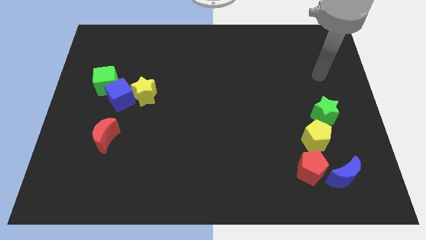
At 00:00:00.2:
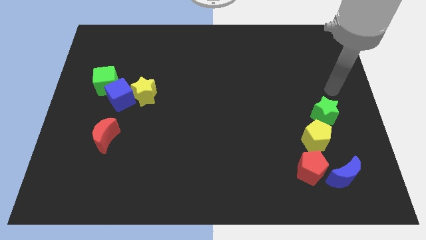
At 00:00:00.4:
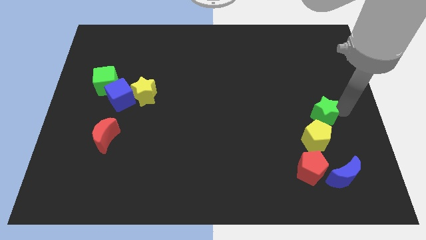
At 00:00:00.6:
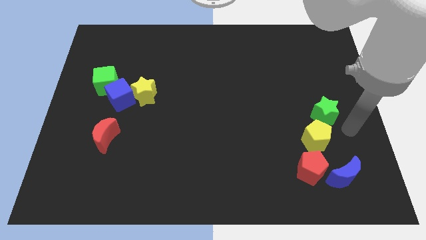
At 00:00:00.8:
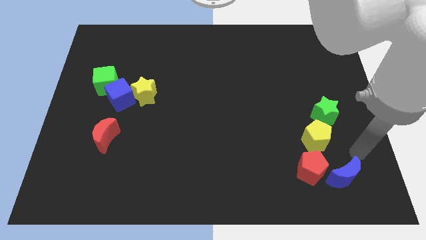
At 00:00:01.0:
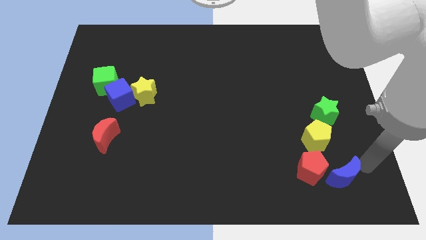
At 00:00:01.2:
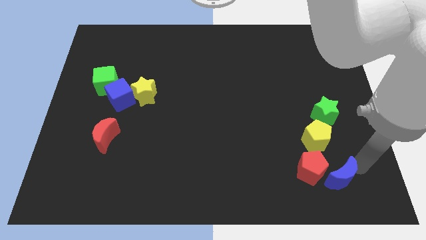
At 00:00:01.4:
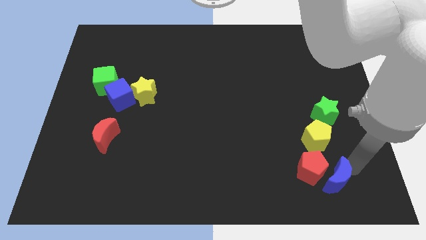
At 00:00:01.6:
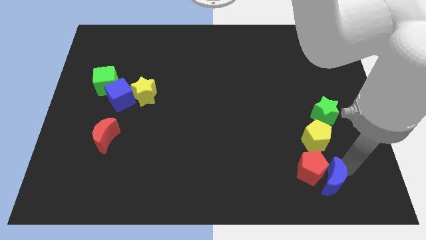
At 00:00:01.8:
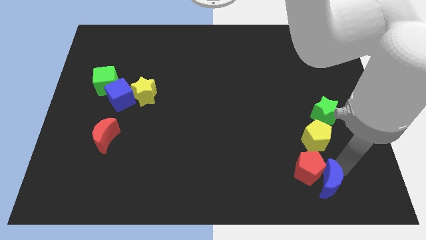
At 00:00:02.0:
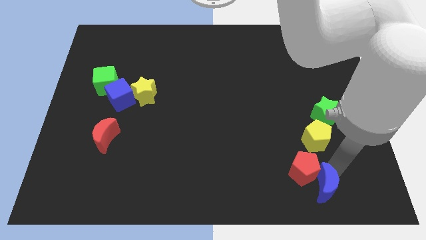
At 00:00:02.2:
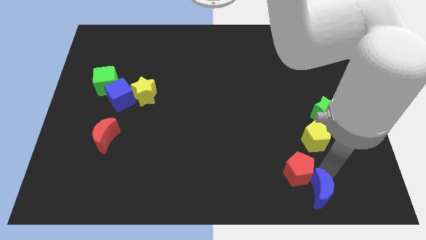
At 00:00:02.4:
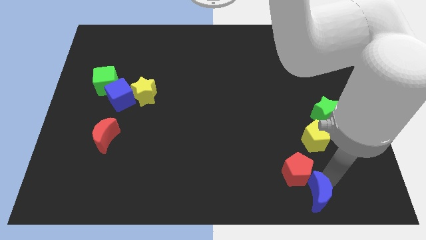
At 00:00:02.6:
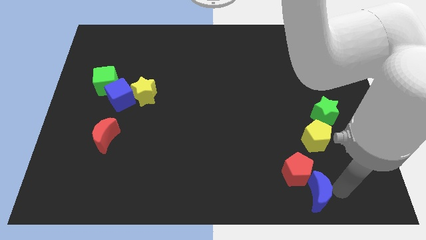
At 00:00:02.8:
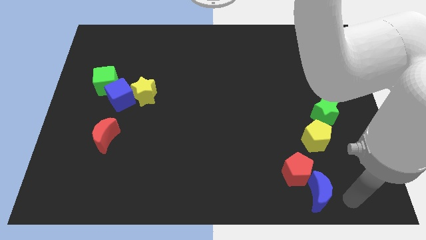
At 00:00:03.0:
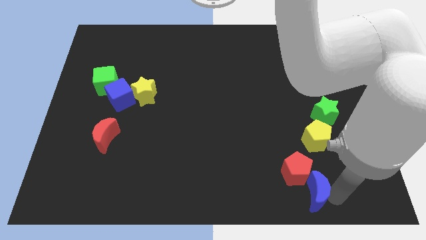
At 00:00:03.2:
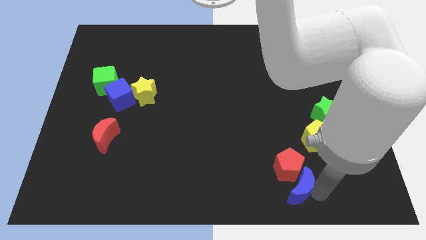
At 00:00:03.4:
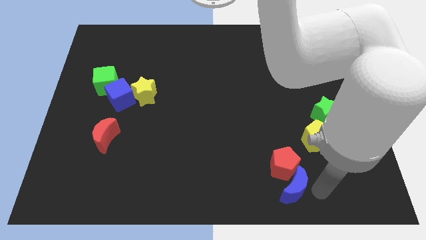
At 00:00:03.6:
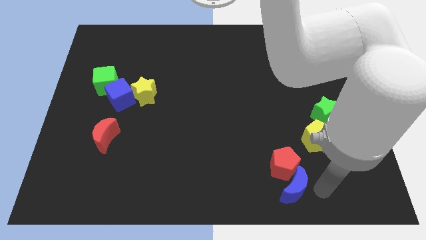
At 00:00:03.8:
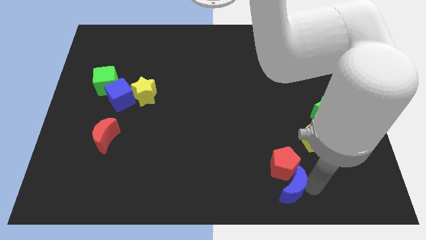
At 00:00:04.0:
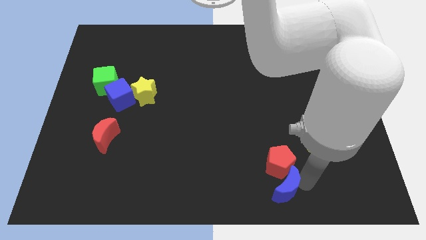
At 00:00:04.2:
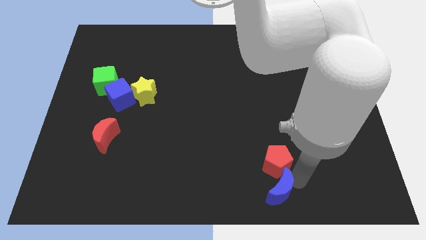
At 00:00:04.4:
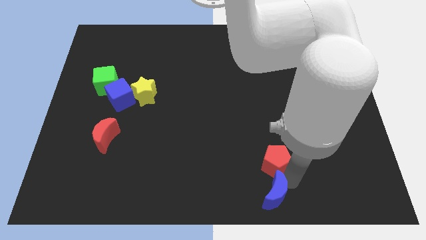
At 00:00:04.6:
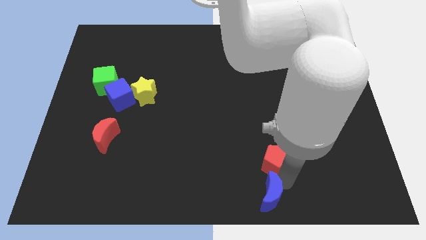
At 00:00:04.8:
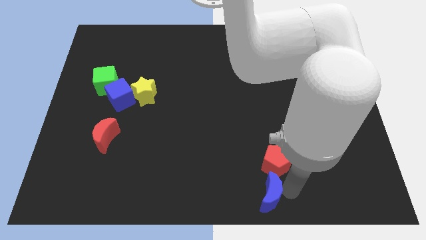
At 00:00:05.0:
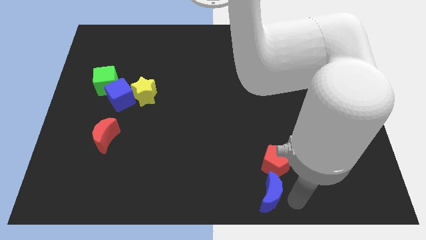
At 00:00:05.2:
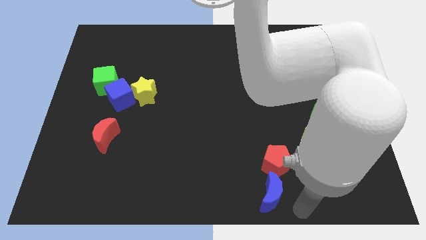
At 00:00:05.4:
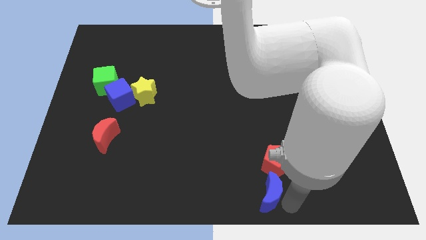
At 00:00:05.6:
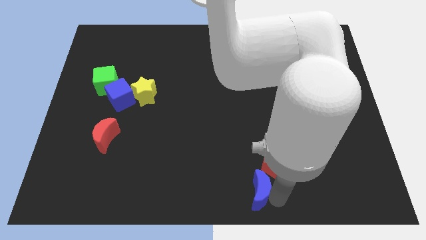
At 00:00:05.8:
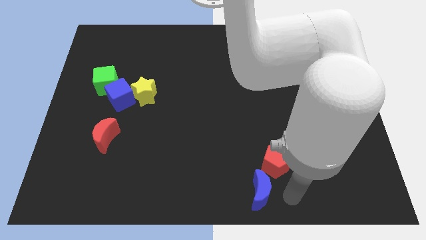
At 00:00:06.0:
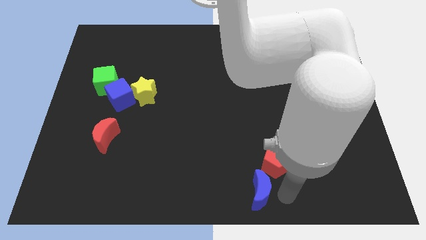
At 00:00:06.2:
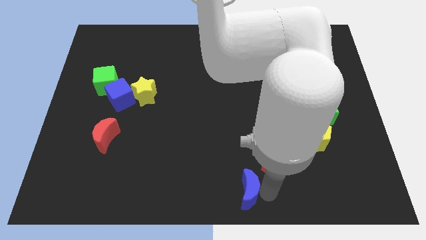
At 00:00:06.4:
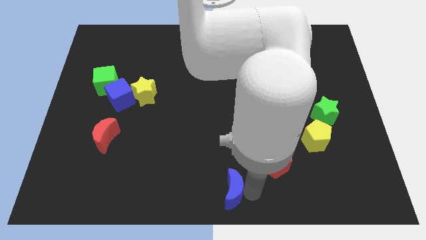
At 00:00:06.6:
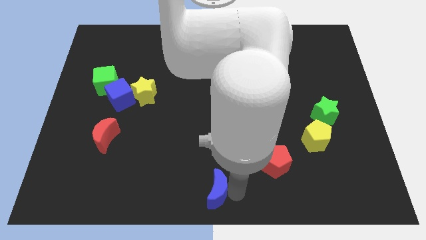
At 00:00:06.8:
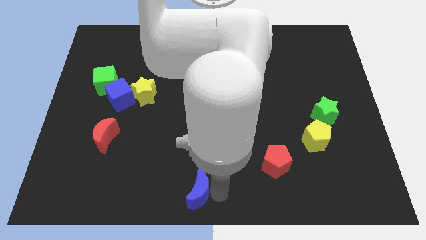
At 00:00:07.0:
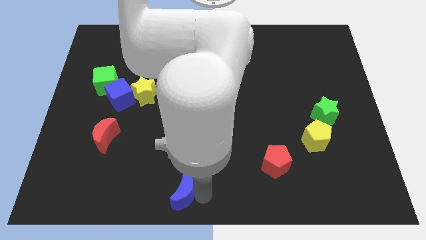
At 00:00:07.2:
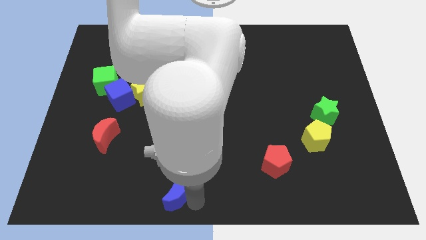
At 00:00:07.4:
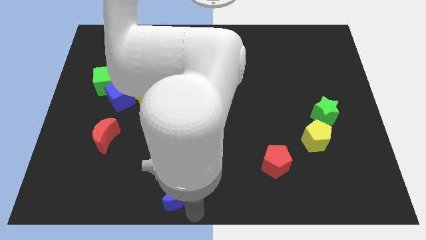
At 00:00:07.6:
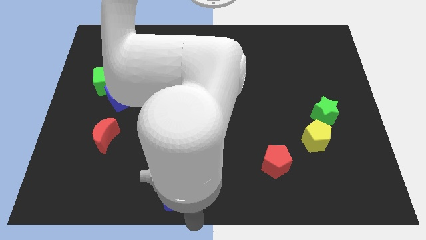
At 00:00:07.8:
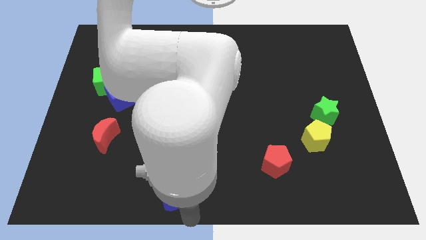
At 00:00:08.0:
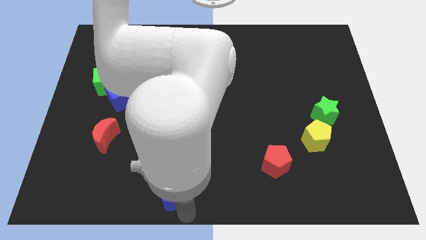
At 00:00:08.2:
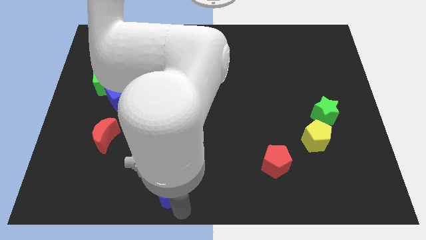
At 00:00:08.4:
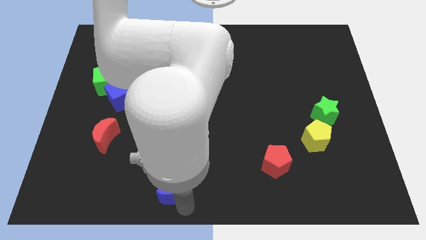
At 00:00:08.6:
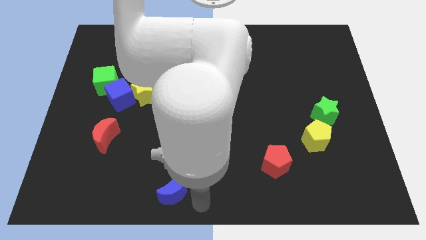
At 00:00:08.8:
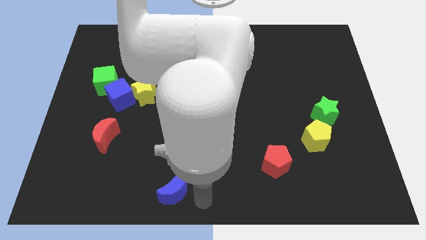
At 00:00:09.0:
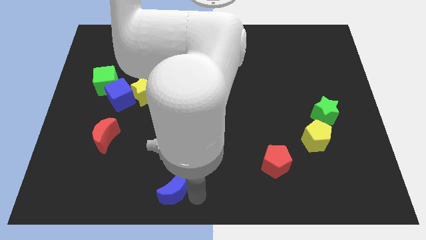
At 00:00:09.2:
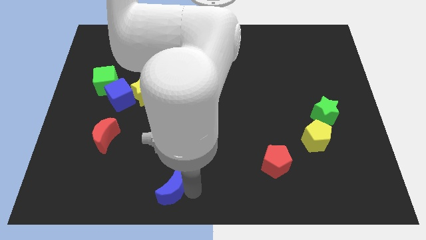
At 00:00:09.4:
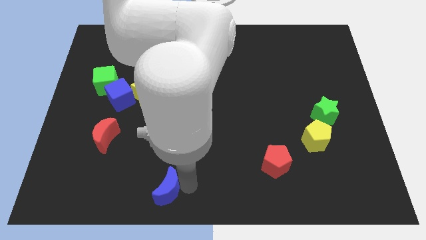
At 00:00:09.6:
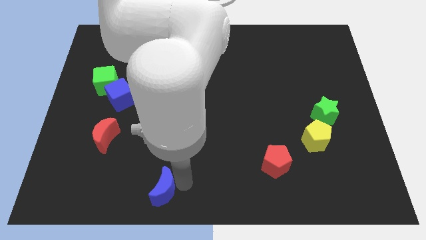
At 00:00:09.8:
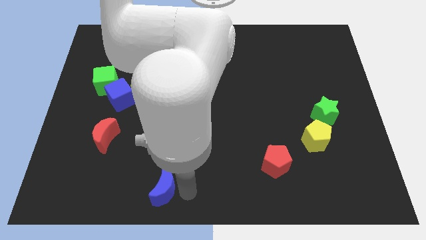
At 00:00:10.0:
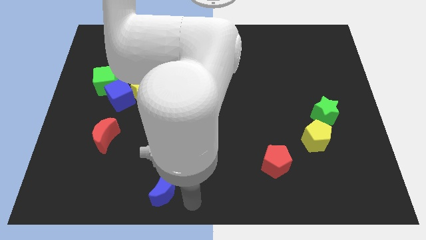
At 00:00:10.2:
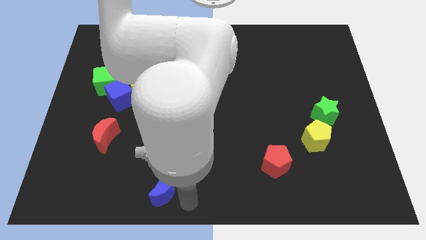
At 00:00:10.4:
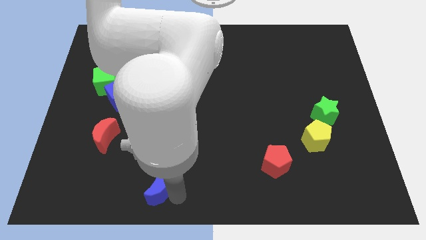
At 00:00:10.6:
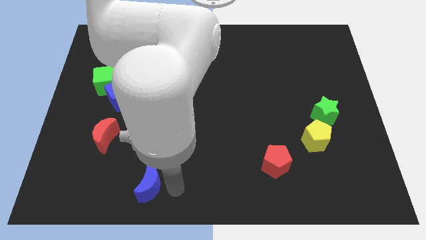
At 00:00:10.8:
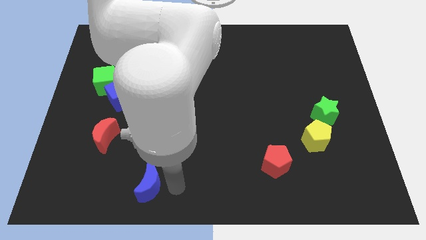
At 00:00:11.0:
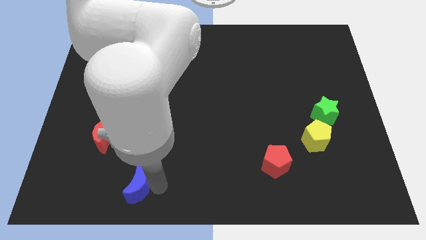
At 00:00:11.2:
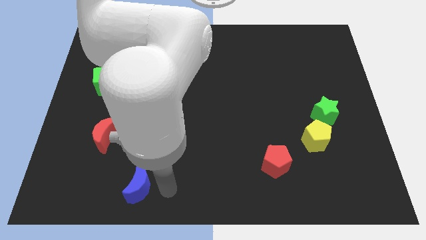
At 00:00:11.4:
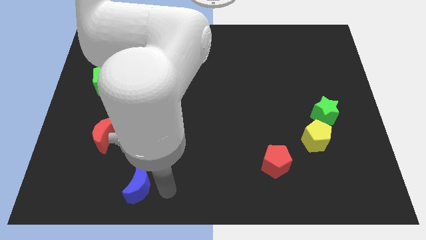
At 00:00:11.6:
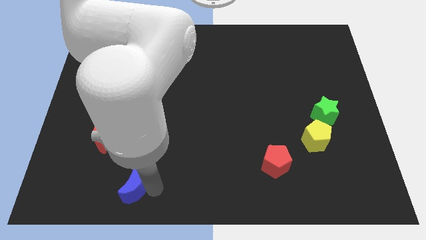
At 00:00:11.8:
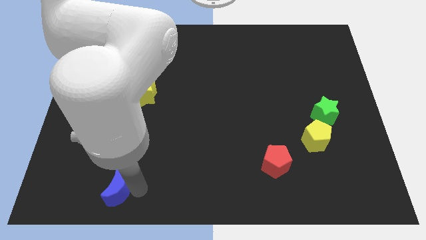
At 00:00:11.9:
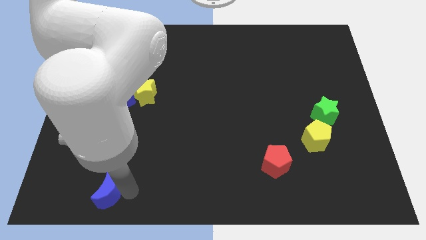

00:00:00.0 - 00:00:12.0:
put the blue moon to the bottom of the red moon

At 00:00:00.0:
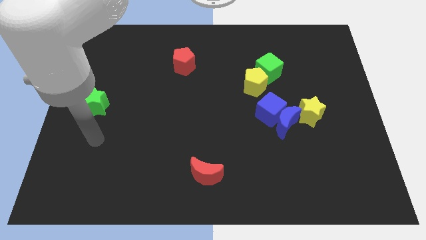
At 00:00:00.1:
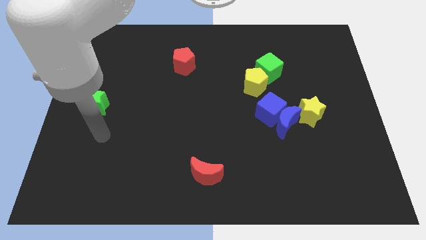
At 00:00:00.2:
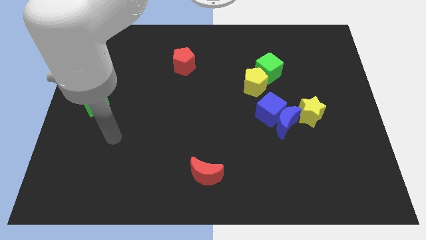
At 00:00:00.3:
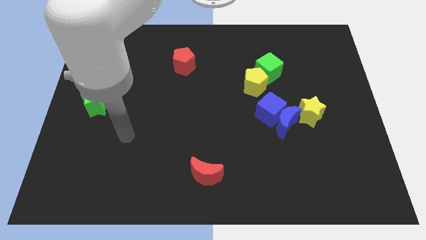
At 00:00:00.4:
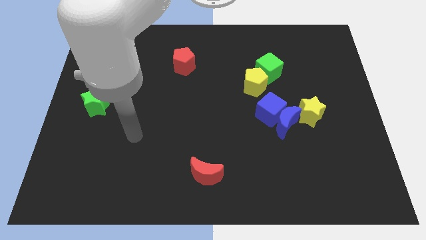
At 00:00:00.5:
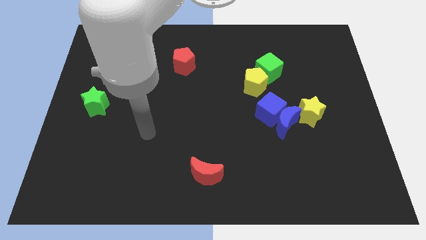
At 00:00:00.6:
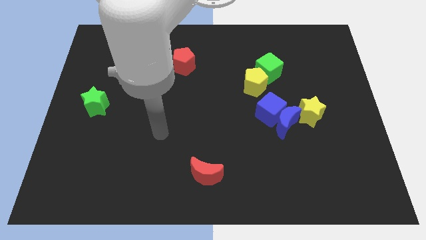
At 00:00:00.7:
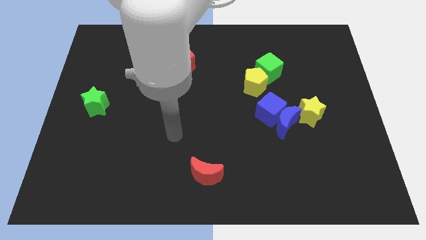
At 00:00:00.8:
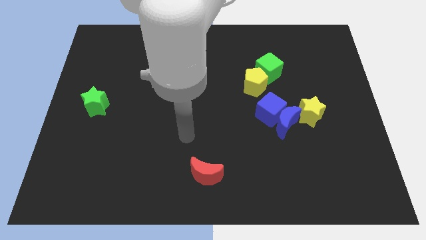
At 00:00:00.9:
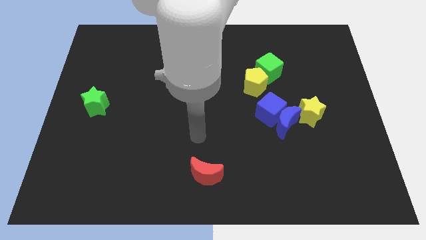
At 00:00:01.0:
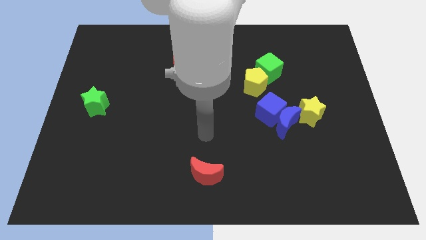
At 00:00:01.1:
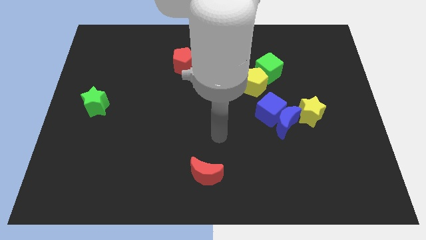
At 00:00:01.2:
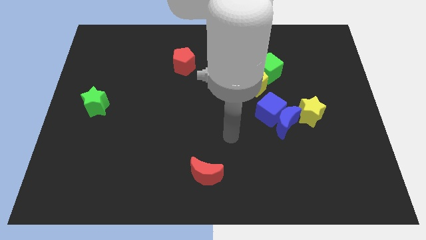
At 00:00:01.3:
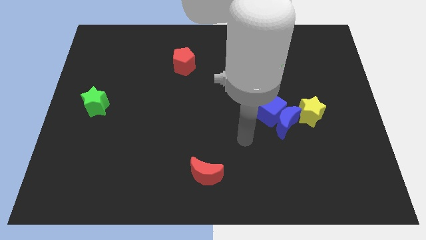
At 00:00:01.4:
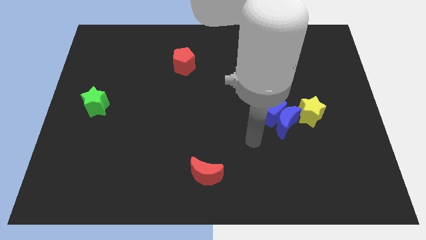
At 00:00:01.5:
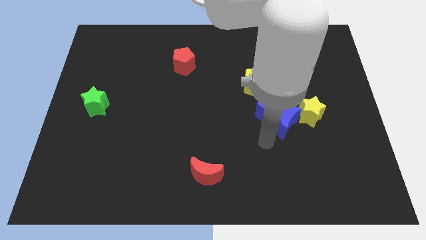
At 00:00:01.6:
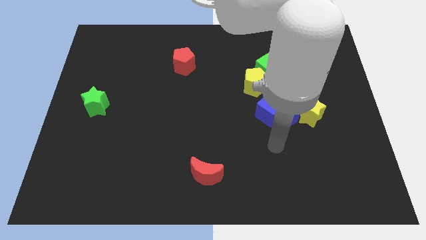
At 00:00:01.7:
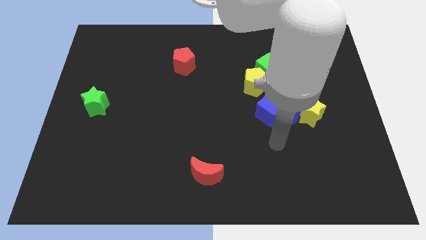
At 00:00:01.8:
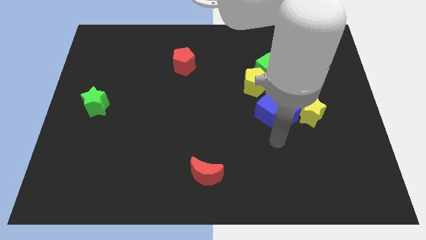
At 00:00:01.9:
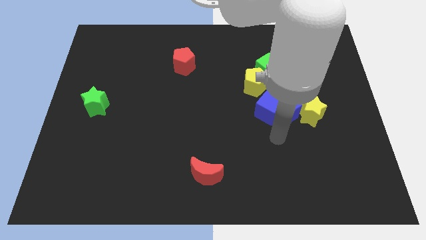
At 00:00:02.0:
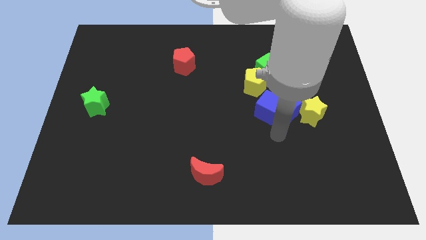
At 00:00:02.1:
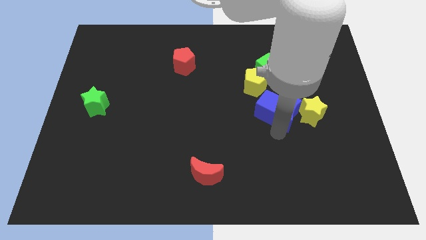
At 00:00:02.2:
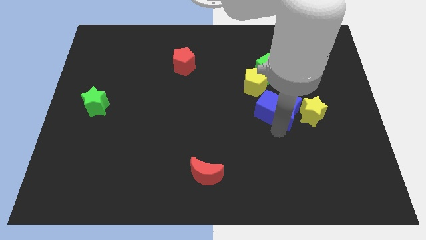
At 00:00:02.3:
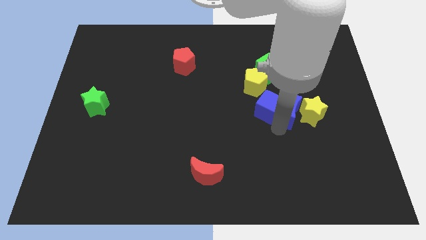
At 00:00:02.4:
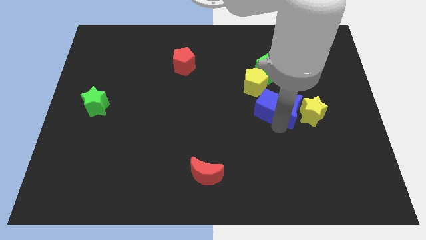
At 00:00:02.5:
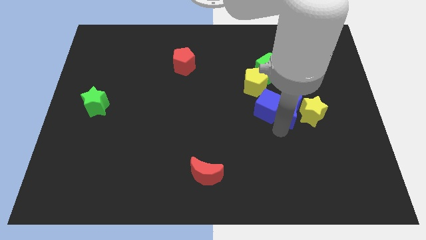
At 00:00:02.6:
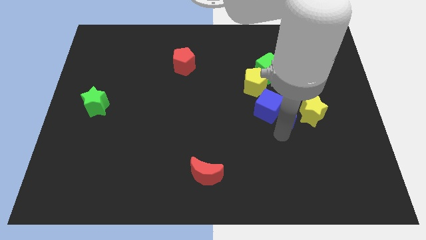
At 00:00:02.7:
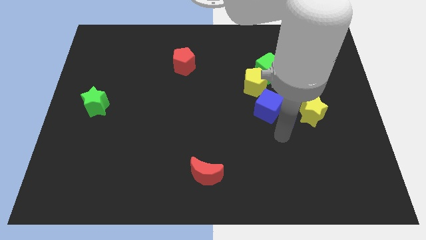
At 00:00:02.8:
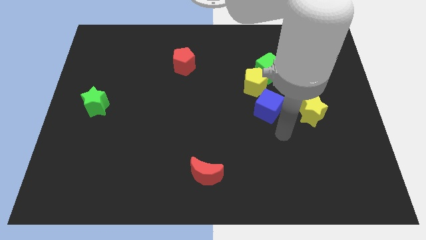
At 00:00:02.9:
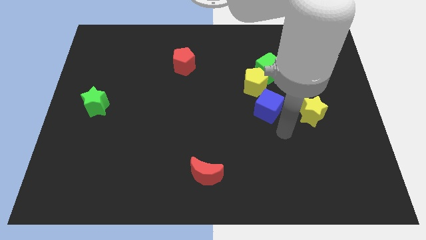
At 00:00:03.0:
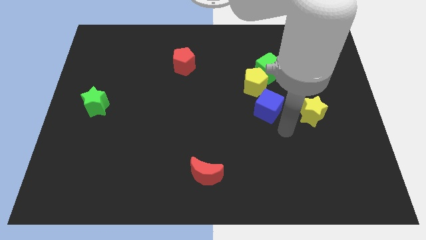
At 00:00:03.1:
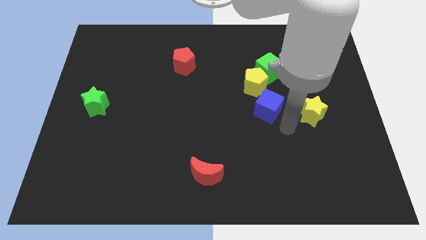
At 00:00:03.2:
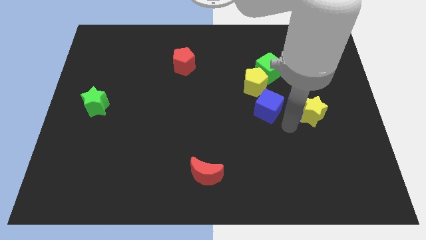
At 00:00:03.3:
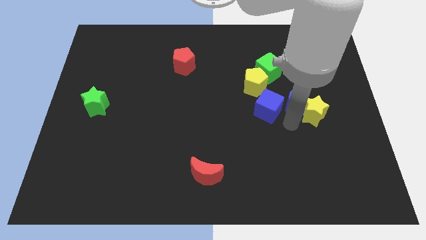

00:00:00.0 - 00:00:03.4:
put the blue moon above the yellow star
